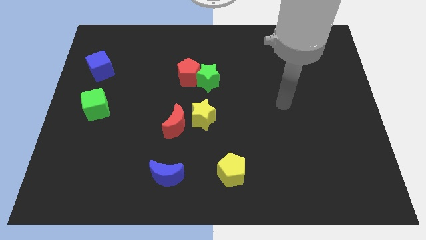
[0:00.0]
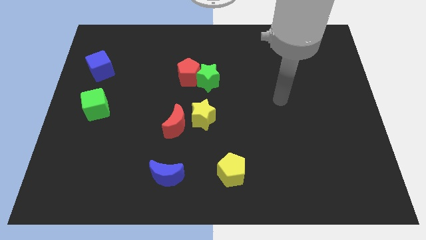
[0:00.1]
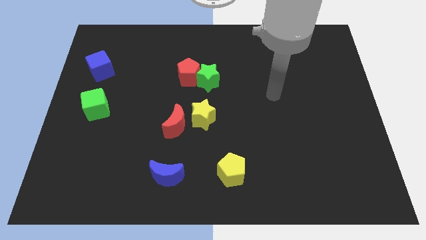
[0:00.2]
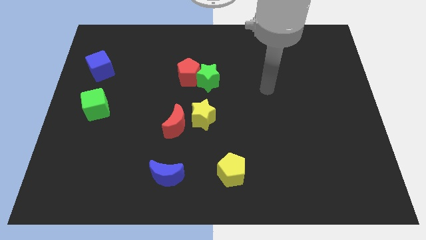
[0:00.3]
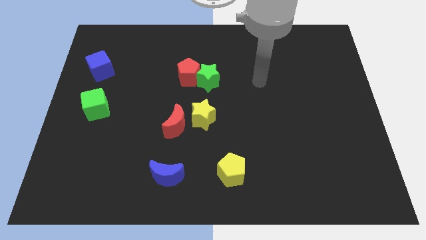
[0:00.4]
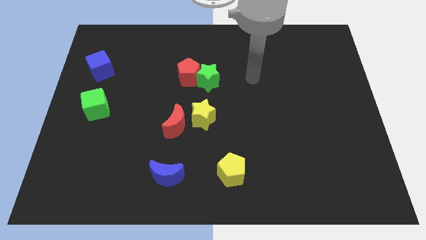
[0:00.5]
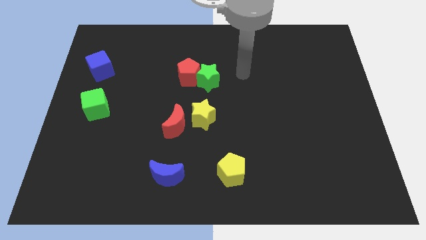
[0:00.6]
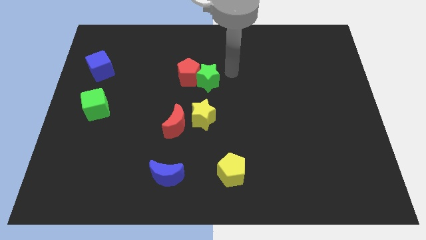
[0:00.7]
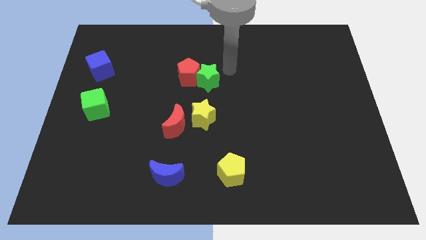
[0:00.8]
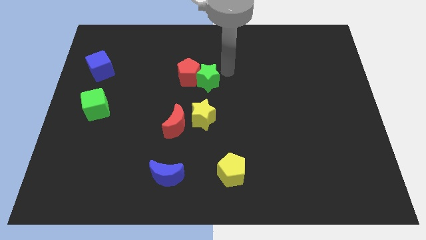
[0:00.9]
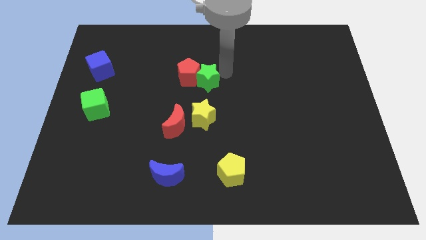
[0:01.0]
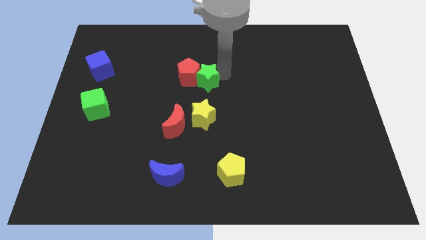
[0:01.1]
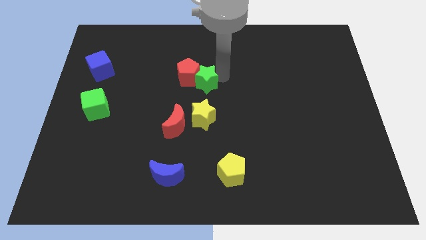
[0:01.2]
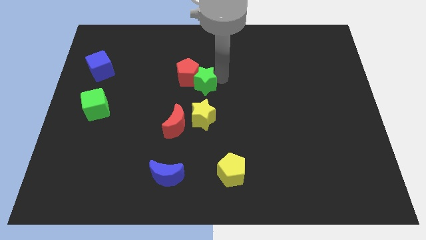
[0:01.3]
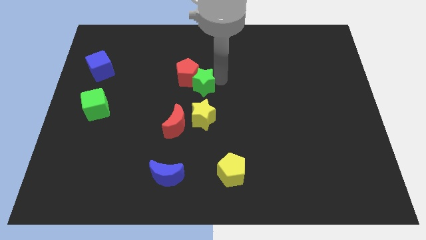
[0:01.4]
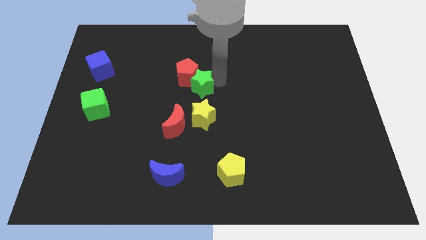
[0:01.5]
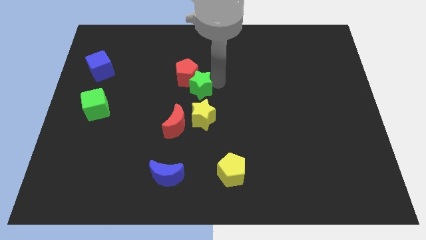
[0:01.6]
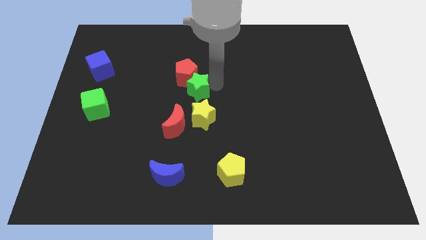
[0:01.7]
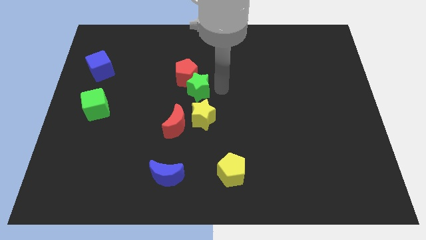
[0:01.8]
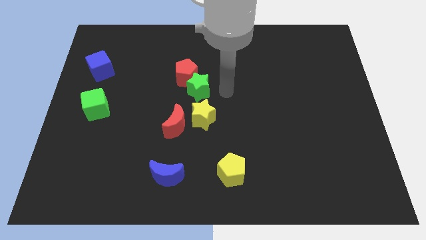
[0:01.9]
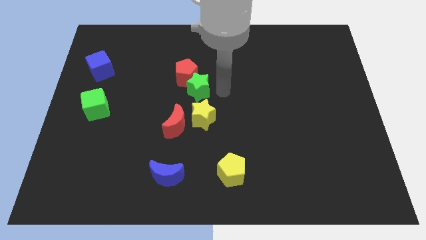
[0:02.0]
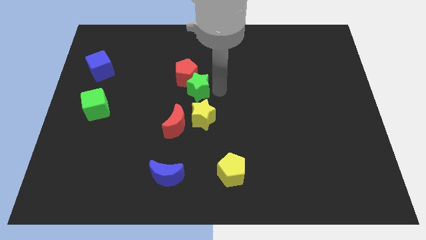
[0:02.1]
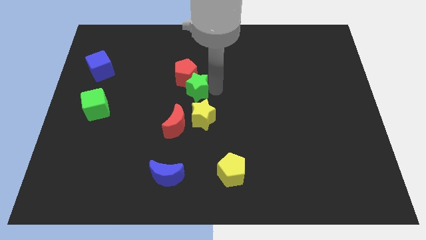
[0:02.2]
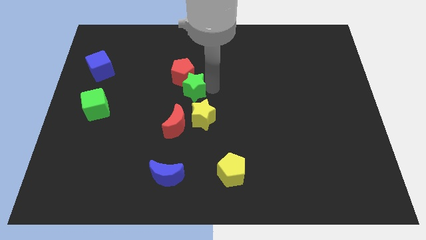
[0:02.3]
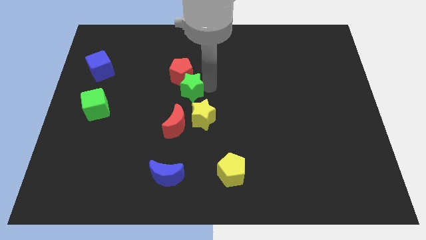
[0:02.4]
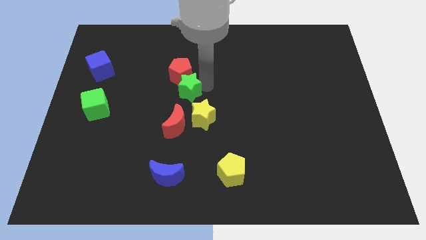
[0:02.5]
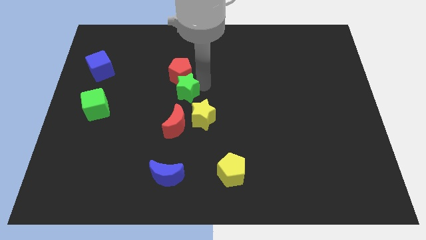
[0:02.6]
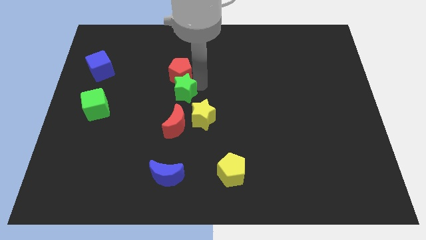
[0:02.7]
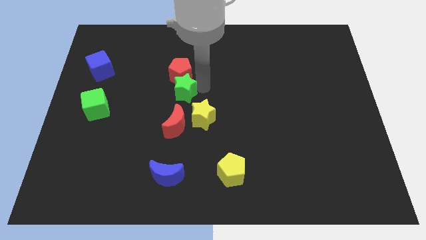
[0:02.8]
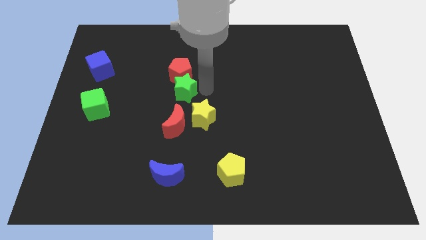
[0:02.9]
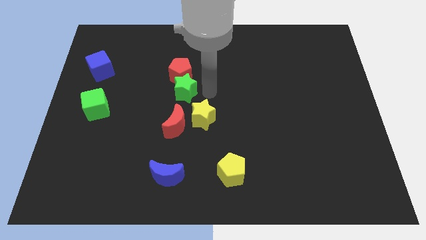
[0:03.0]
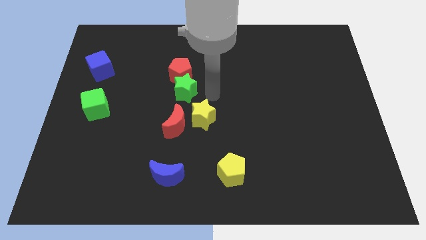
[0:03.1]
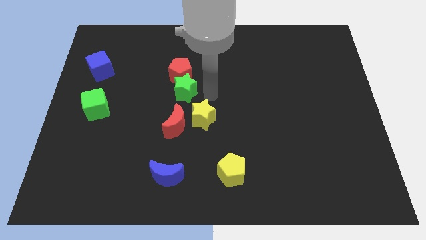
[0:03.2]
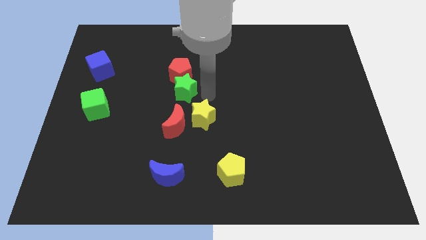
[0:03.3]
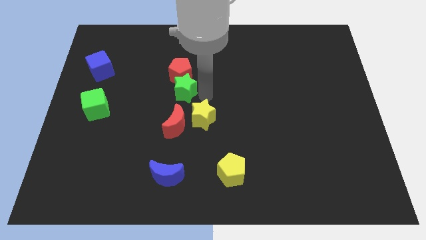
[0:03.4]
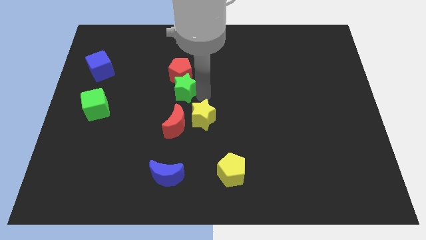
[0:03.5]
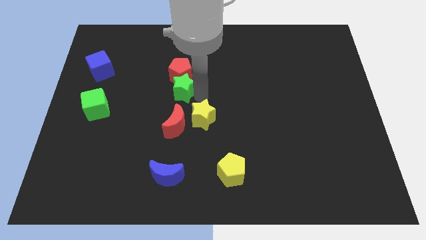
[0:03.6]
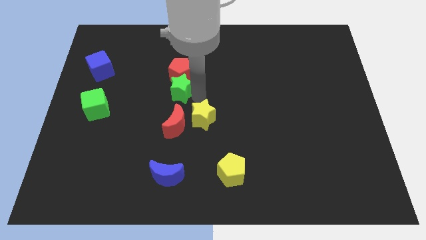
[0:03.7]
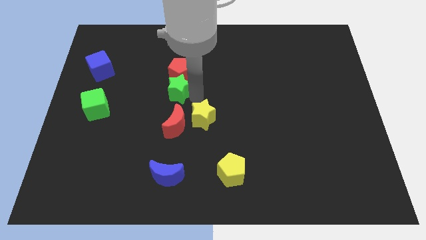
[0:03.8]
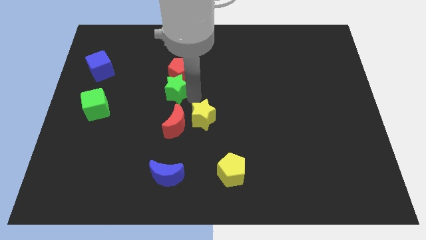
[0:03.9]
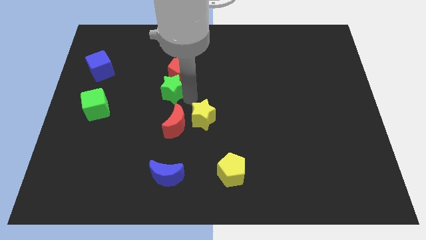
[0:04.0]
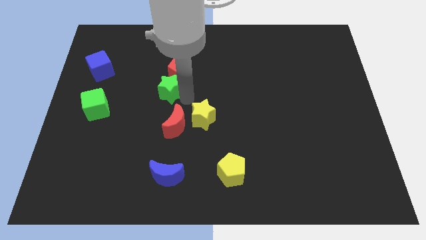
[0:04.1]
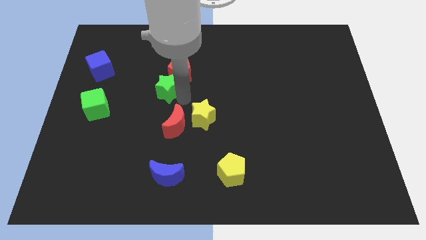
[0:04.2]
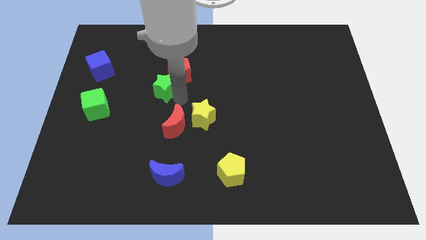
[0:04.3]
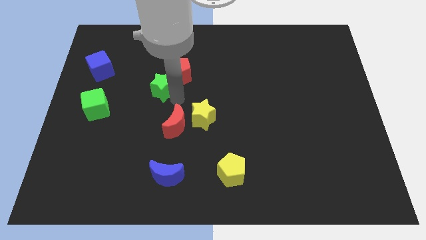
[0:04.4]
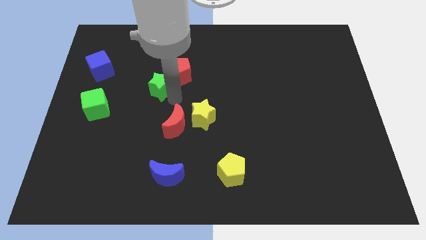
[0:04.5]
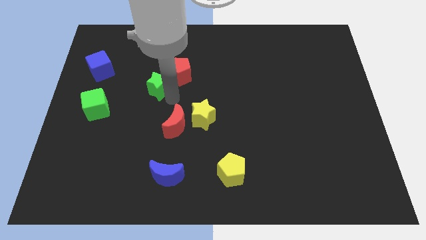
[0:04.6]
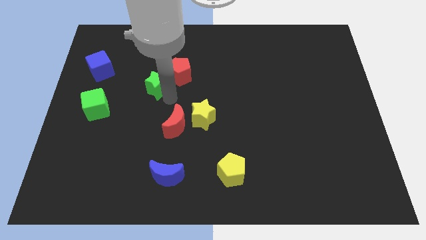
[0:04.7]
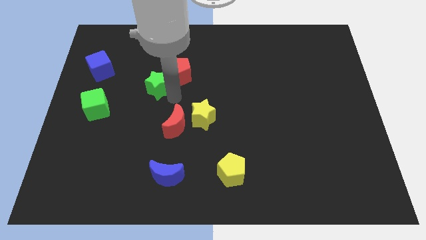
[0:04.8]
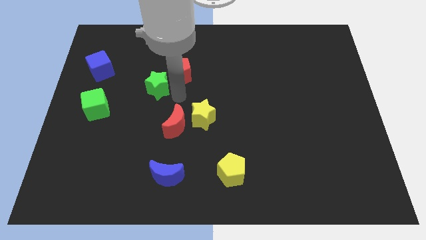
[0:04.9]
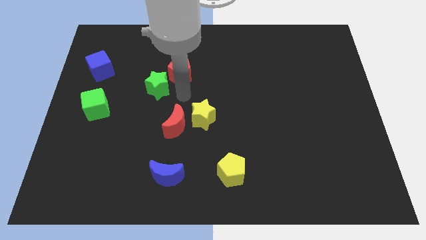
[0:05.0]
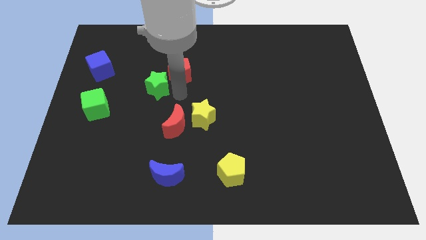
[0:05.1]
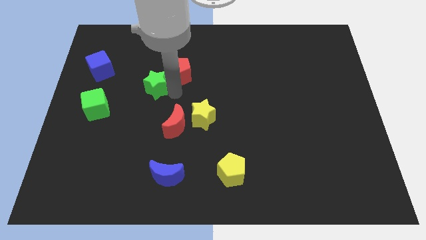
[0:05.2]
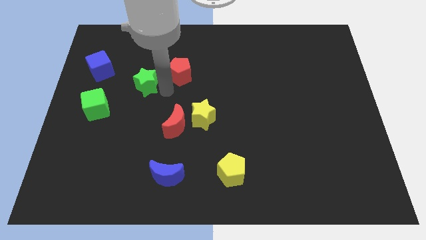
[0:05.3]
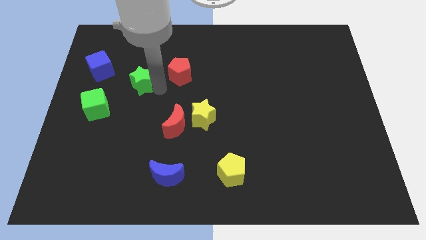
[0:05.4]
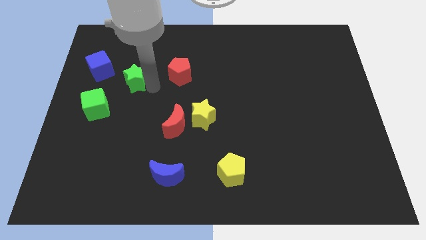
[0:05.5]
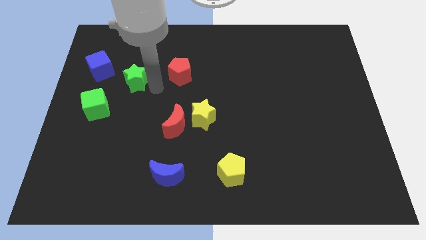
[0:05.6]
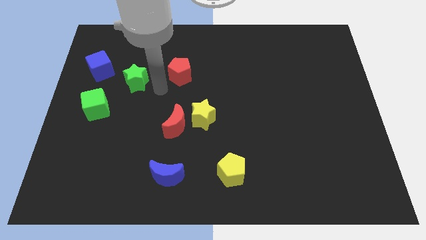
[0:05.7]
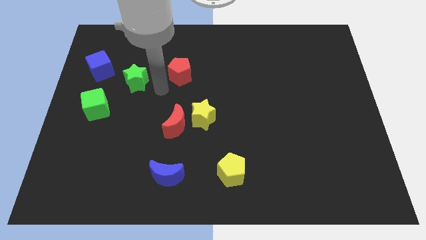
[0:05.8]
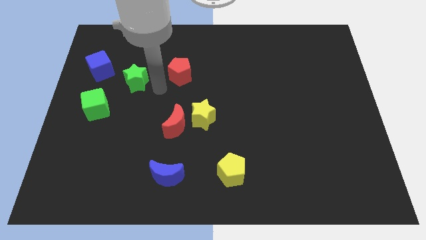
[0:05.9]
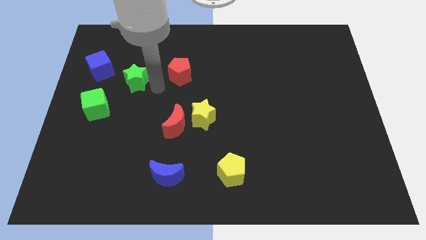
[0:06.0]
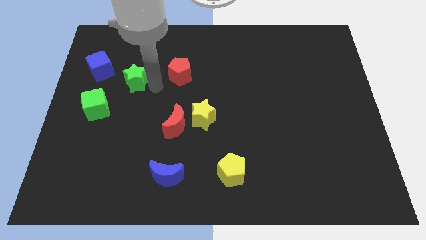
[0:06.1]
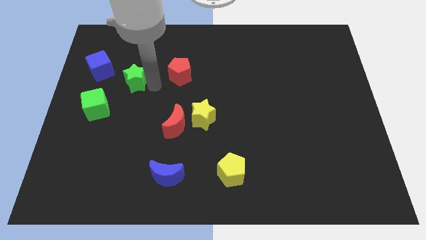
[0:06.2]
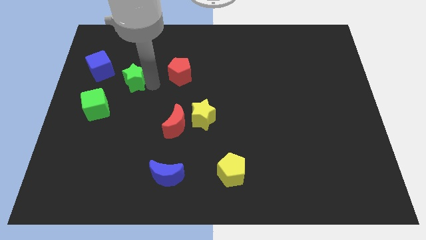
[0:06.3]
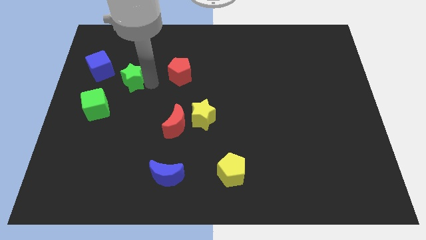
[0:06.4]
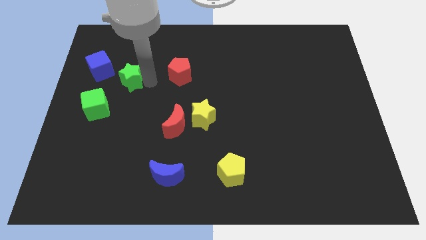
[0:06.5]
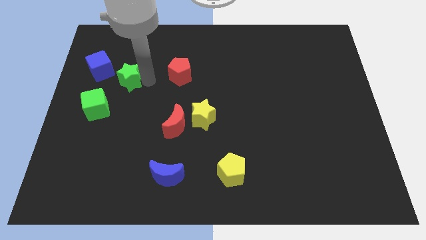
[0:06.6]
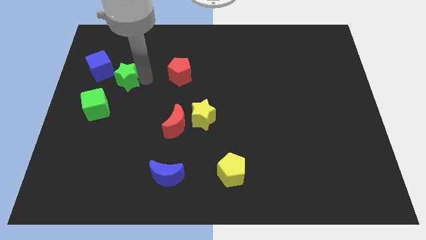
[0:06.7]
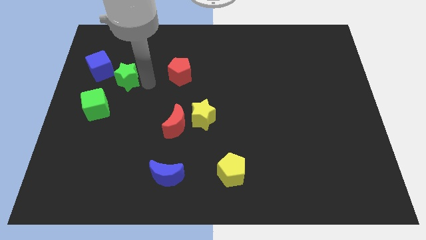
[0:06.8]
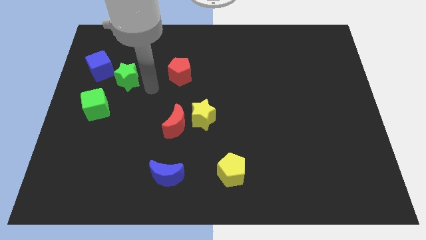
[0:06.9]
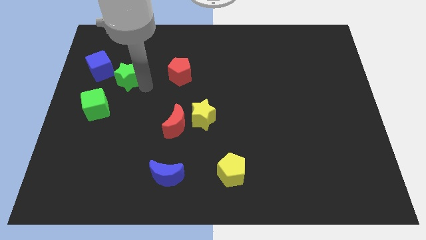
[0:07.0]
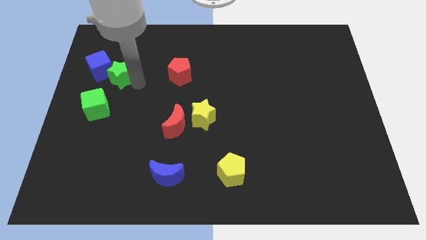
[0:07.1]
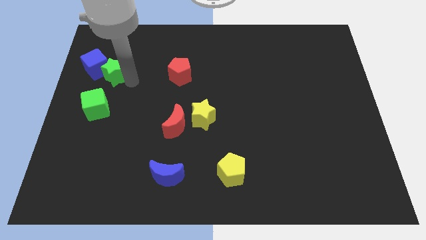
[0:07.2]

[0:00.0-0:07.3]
move the green star to the blue cube
